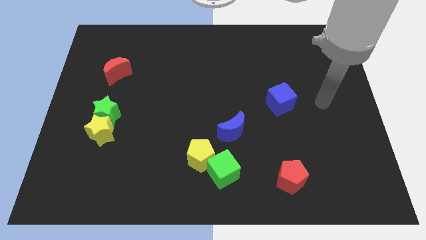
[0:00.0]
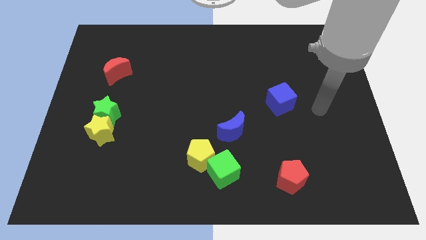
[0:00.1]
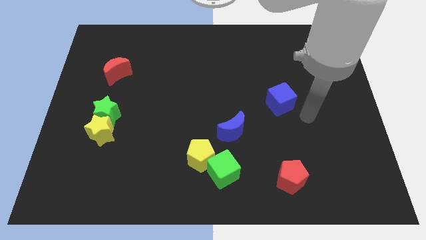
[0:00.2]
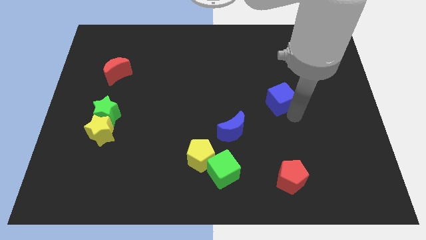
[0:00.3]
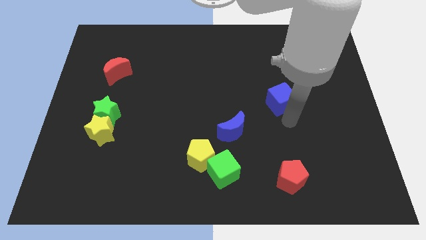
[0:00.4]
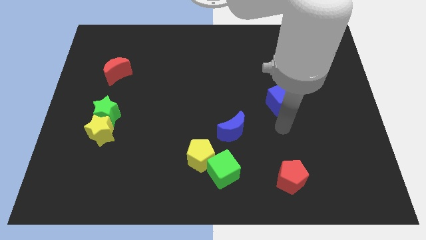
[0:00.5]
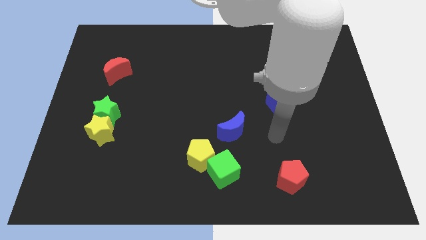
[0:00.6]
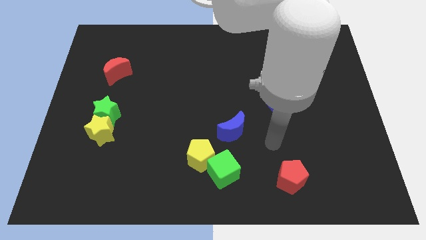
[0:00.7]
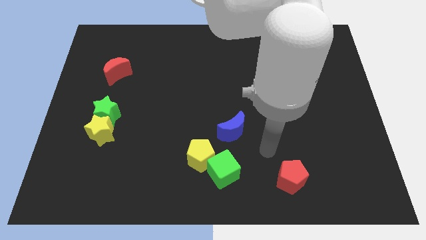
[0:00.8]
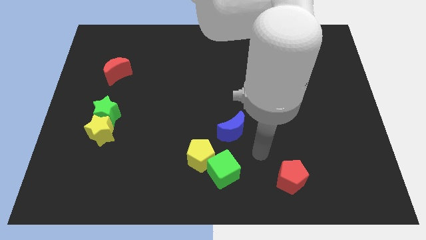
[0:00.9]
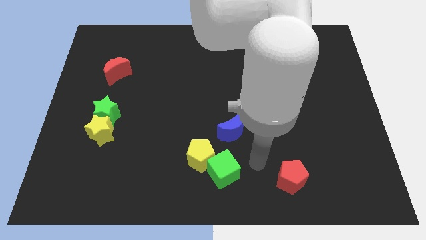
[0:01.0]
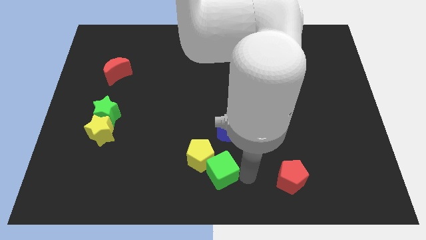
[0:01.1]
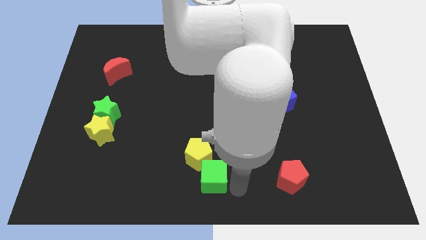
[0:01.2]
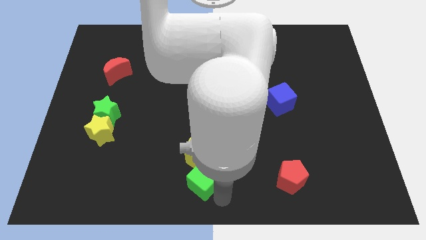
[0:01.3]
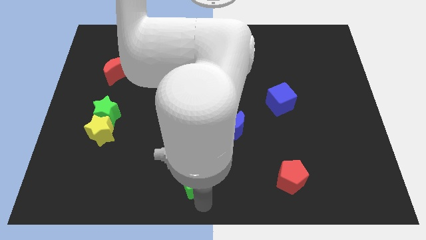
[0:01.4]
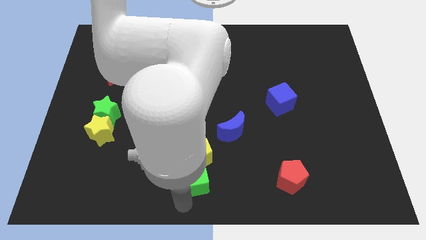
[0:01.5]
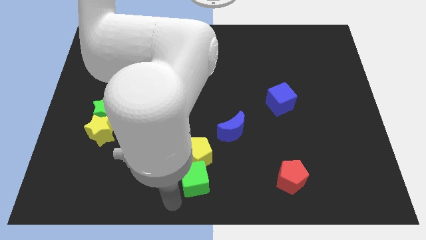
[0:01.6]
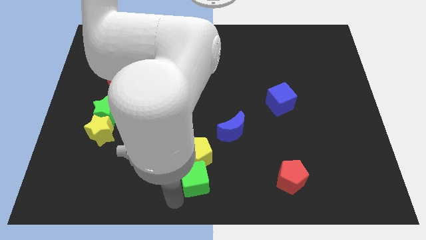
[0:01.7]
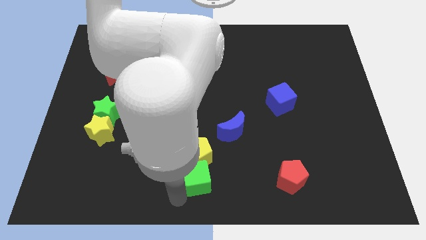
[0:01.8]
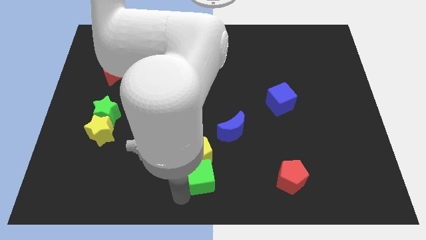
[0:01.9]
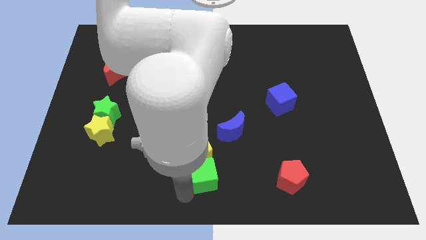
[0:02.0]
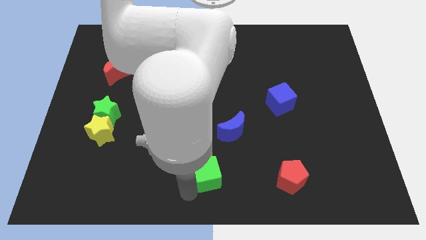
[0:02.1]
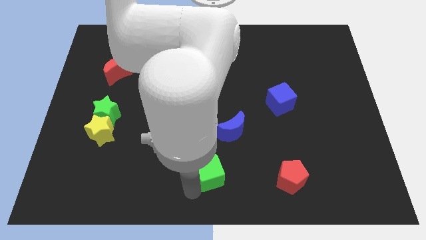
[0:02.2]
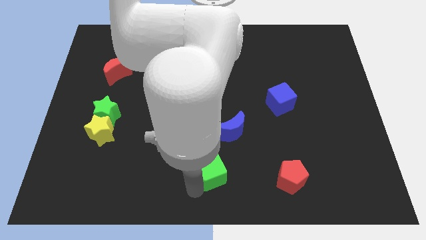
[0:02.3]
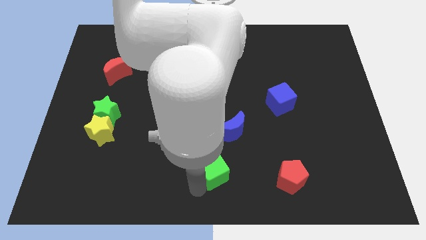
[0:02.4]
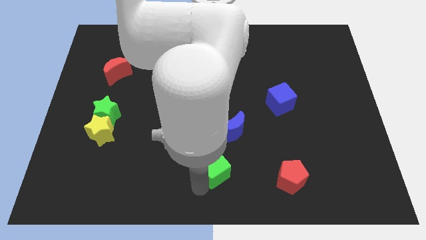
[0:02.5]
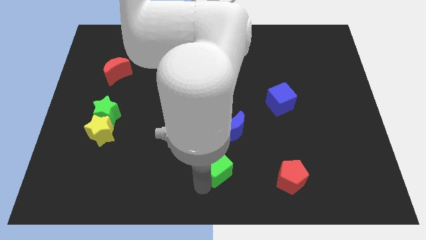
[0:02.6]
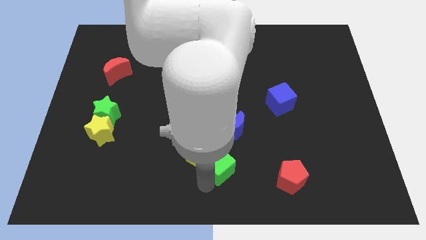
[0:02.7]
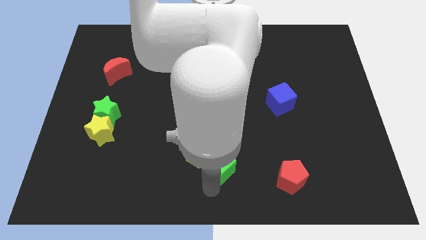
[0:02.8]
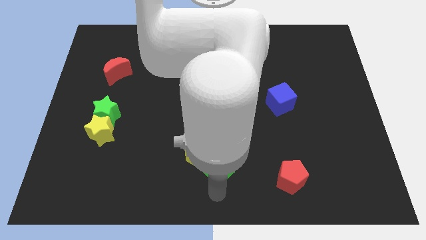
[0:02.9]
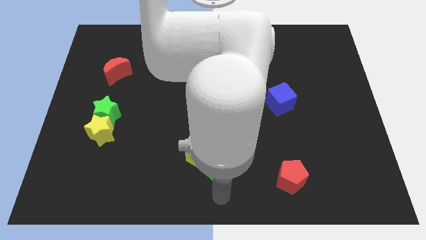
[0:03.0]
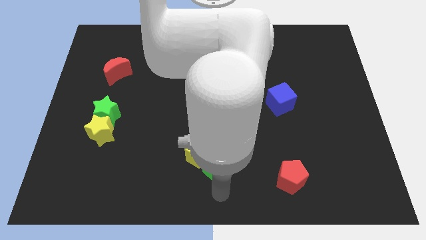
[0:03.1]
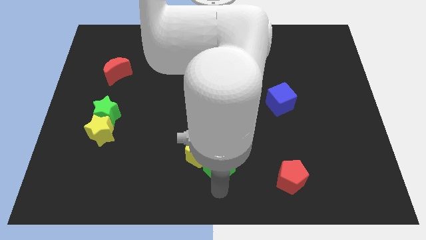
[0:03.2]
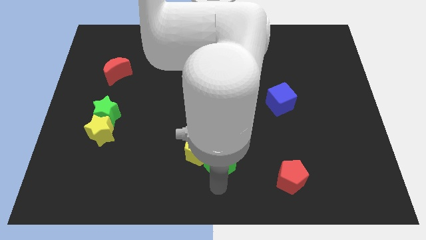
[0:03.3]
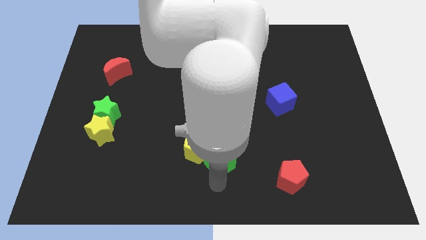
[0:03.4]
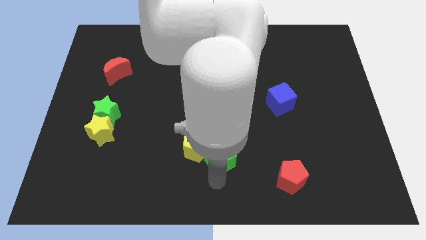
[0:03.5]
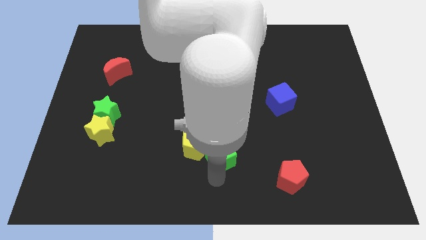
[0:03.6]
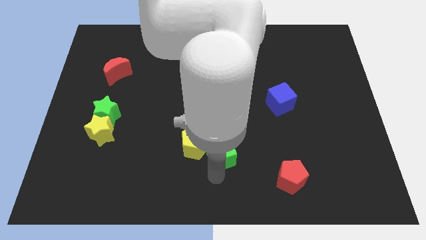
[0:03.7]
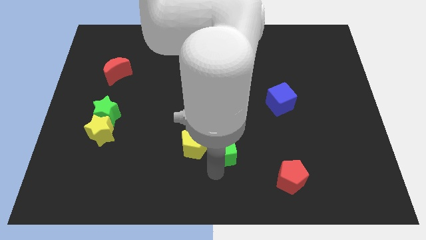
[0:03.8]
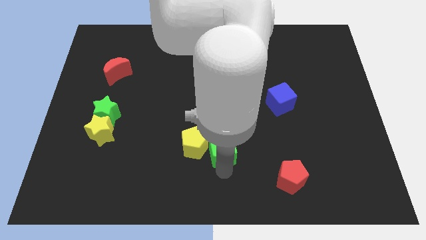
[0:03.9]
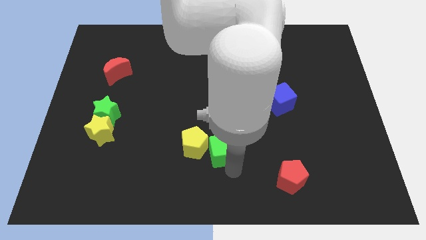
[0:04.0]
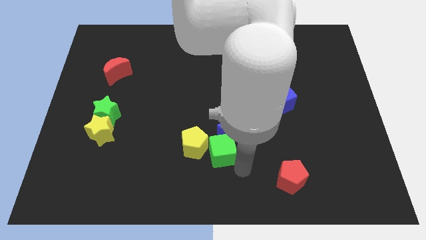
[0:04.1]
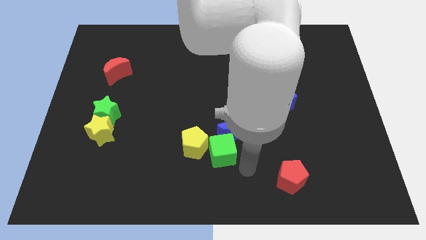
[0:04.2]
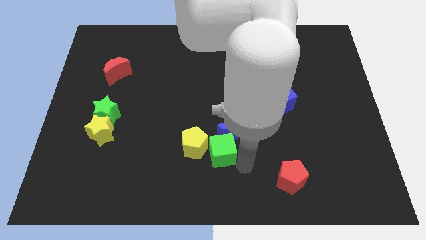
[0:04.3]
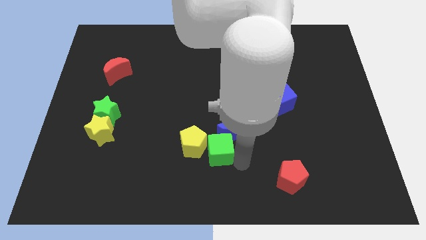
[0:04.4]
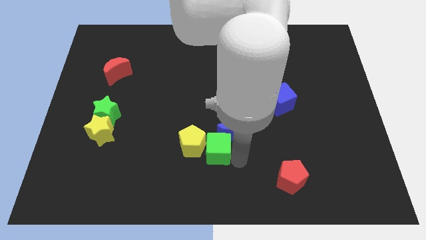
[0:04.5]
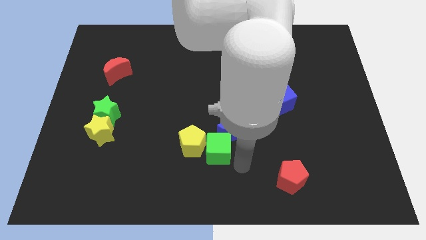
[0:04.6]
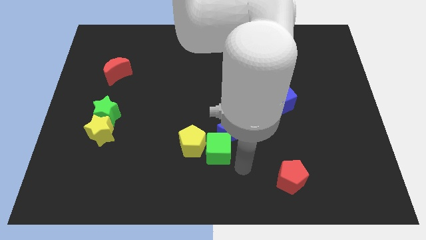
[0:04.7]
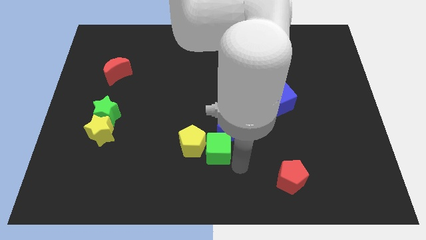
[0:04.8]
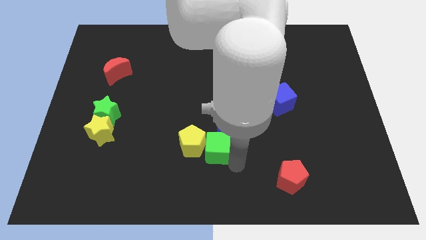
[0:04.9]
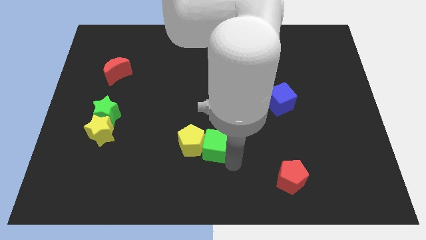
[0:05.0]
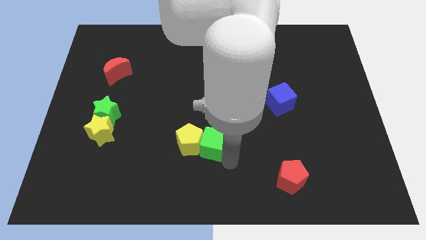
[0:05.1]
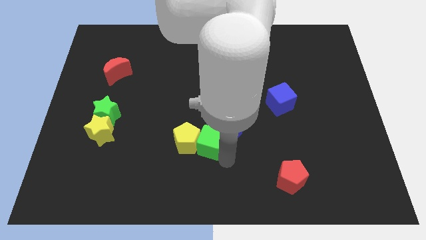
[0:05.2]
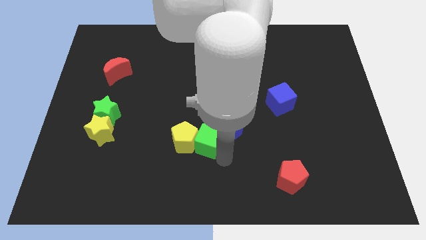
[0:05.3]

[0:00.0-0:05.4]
push the green cube slightly up and then left

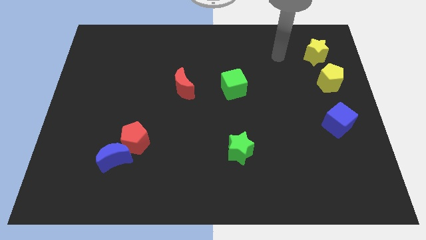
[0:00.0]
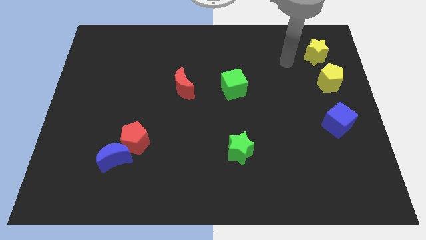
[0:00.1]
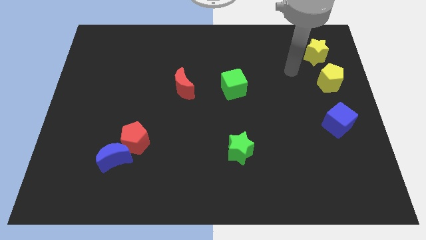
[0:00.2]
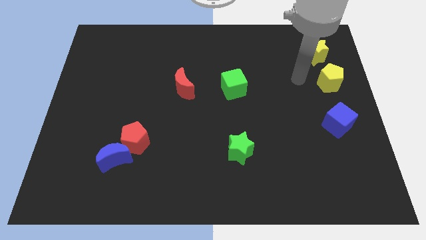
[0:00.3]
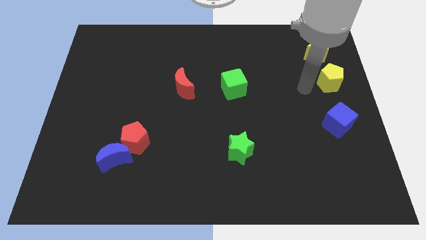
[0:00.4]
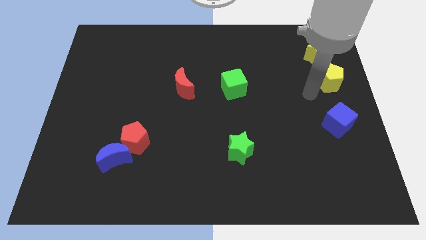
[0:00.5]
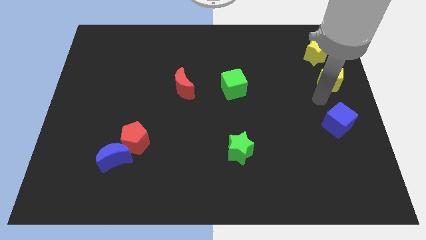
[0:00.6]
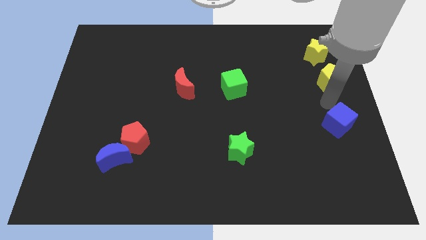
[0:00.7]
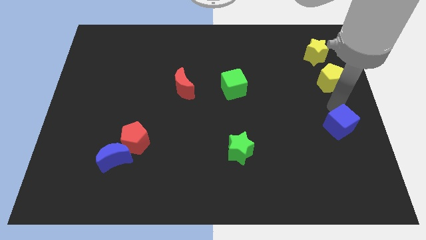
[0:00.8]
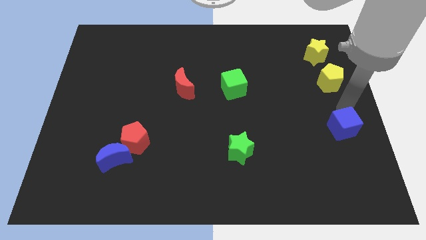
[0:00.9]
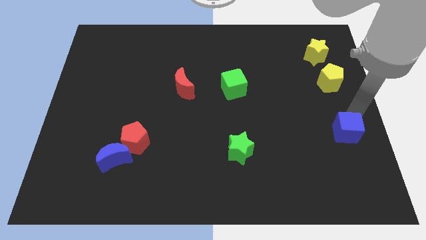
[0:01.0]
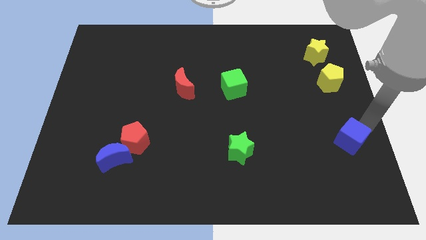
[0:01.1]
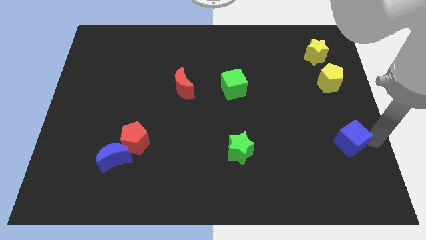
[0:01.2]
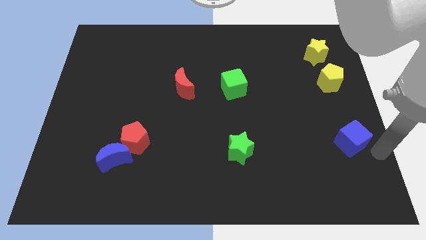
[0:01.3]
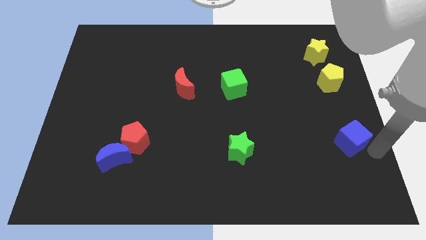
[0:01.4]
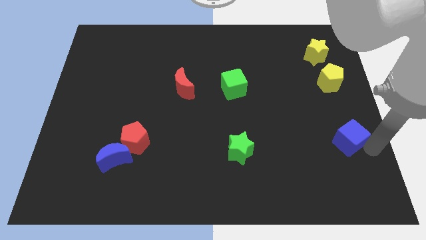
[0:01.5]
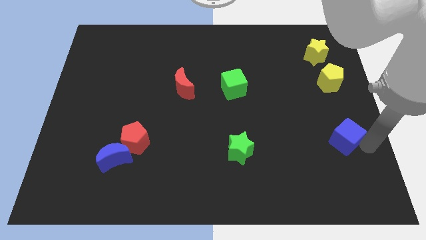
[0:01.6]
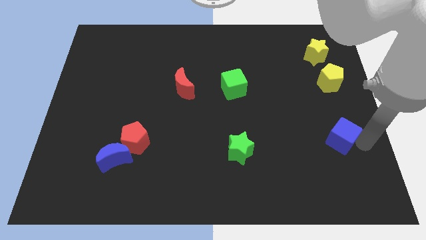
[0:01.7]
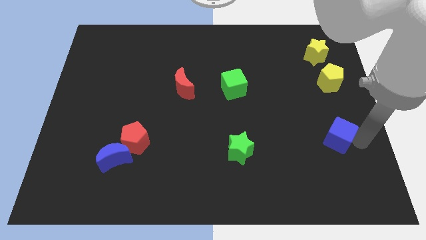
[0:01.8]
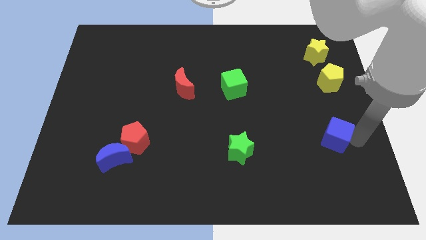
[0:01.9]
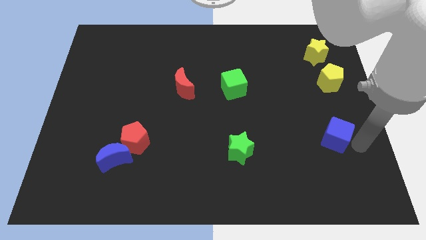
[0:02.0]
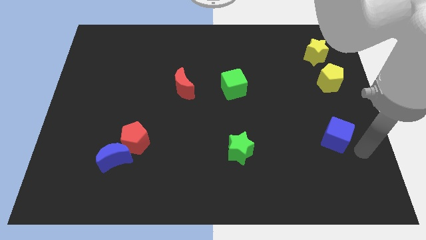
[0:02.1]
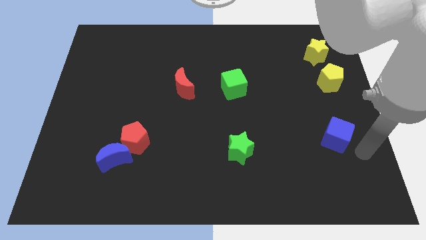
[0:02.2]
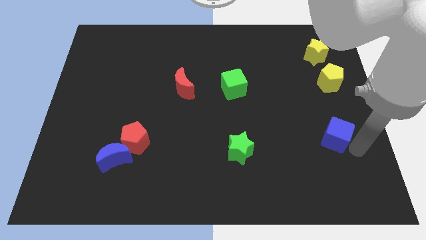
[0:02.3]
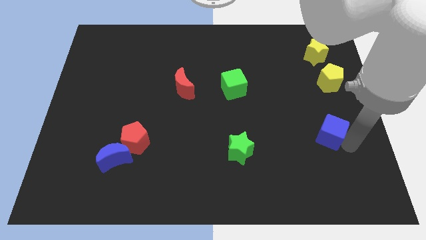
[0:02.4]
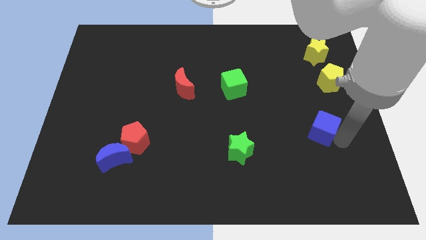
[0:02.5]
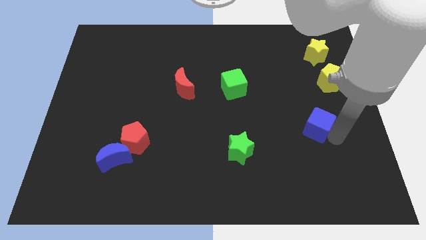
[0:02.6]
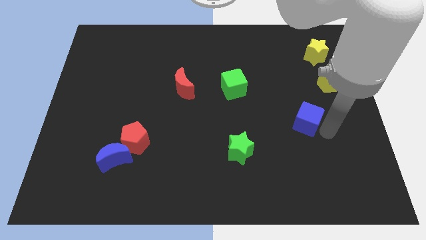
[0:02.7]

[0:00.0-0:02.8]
push the blue cube left somewhat
